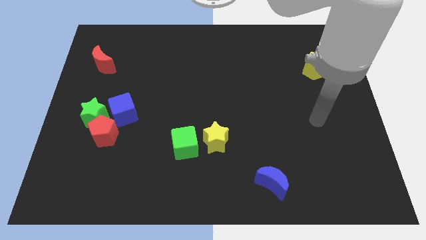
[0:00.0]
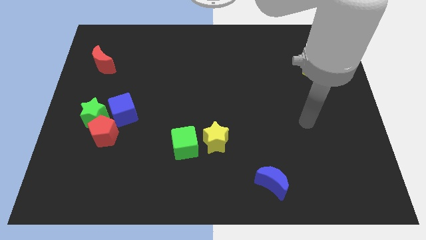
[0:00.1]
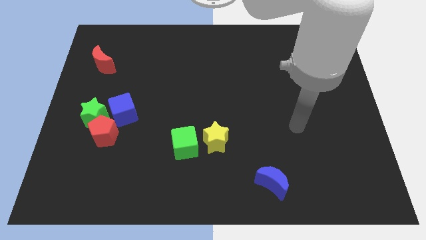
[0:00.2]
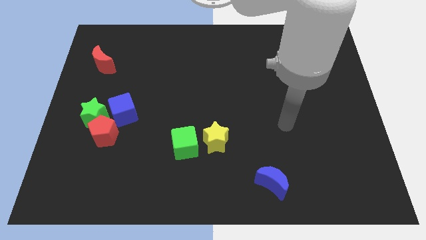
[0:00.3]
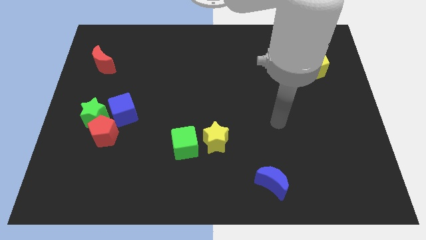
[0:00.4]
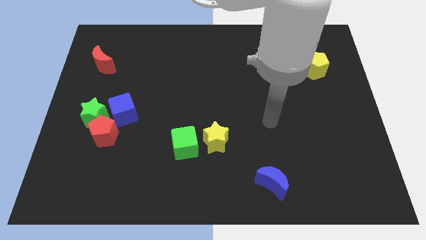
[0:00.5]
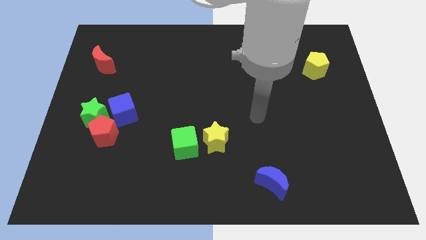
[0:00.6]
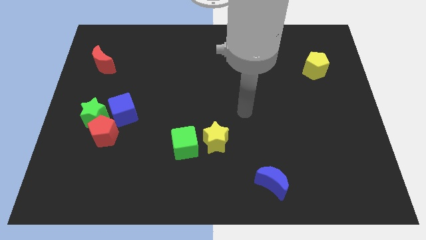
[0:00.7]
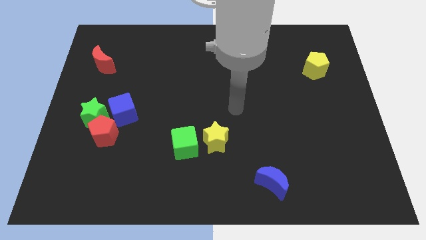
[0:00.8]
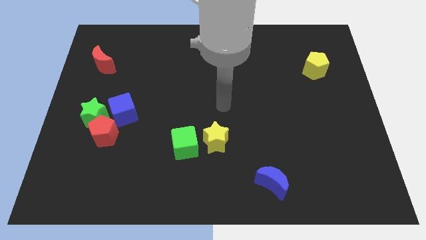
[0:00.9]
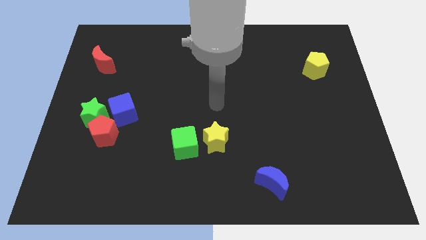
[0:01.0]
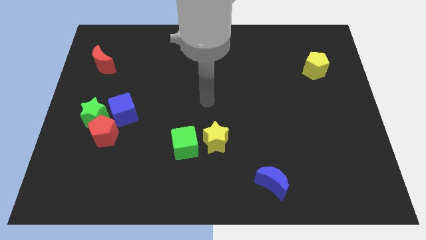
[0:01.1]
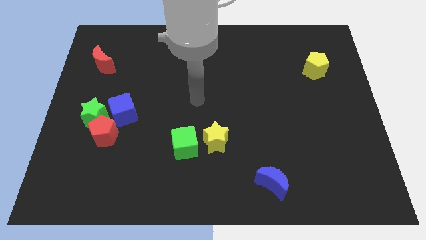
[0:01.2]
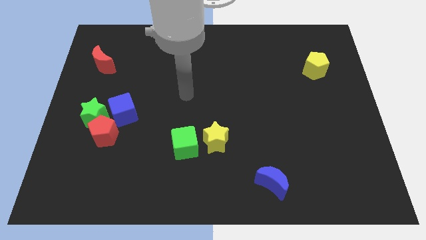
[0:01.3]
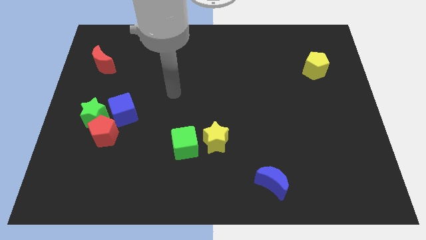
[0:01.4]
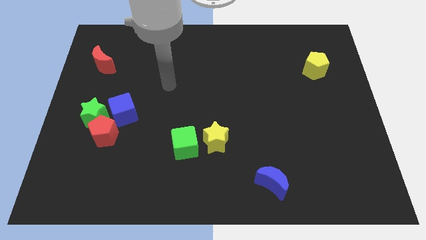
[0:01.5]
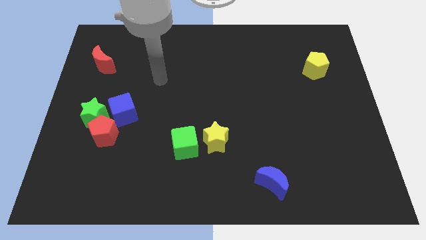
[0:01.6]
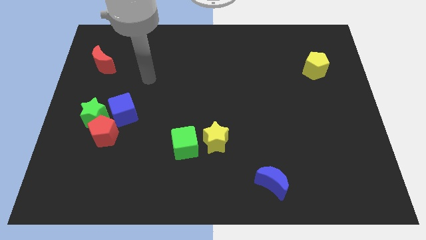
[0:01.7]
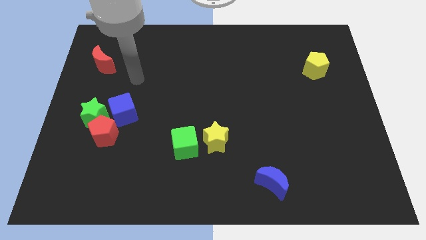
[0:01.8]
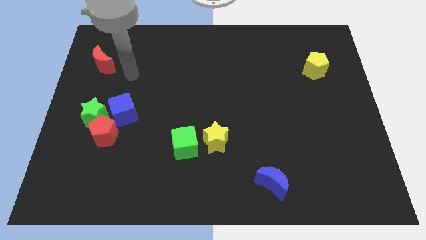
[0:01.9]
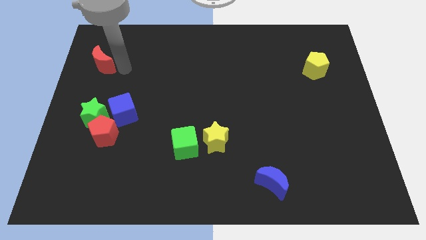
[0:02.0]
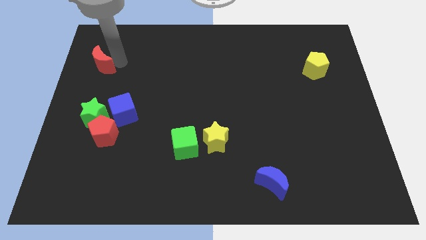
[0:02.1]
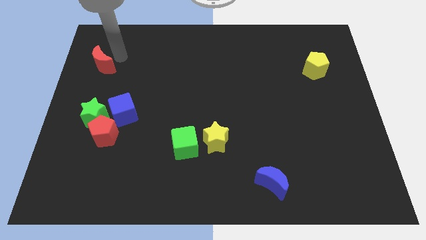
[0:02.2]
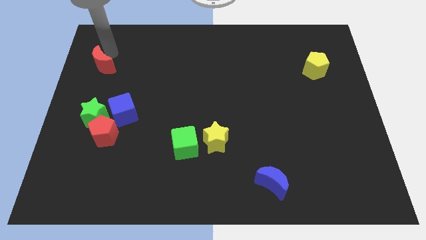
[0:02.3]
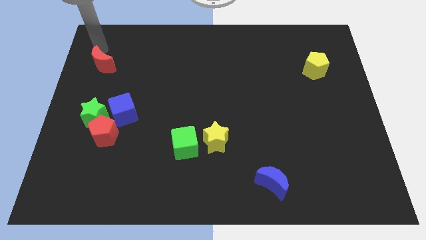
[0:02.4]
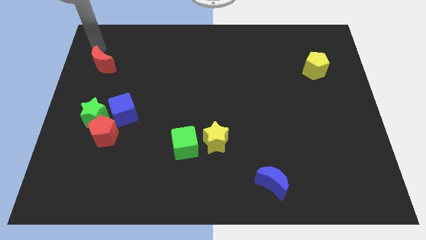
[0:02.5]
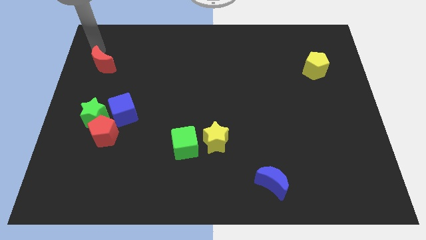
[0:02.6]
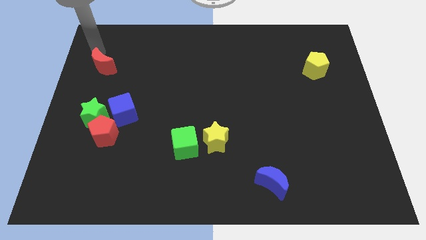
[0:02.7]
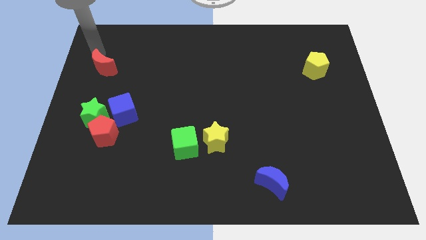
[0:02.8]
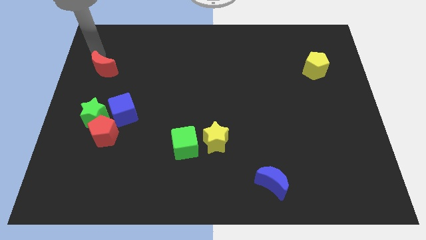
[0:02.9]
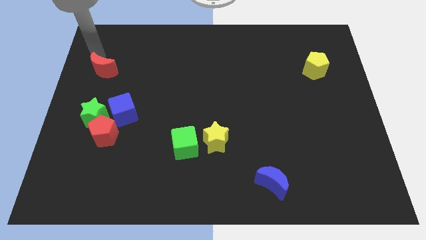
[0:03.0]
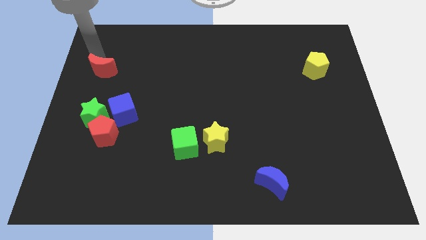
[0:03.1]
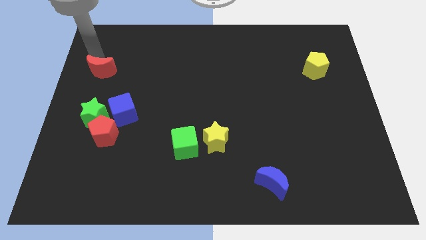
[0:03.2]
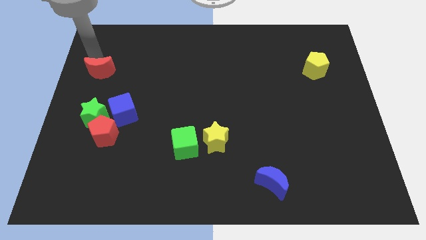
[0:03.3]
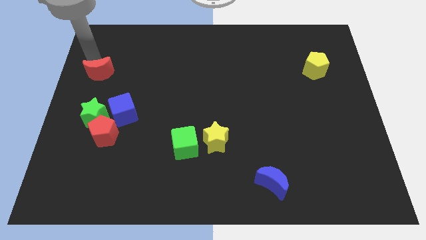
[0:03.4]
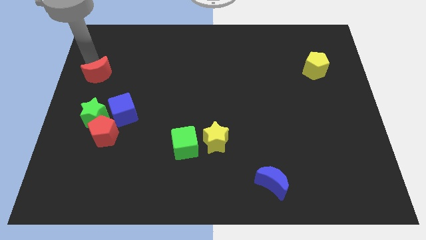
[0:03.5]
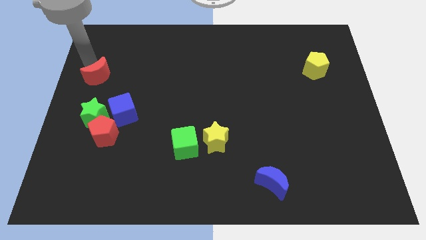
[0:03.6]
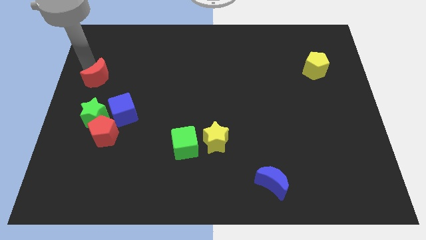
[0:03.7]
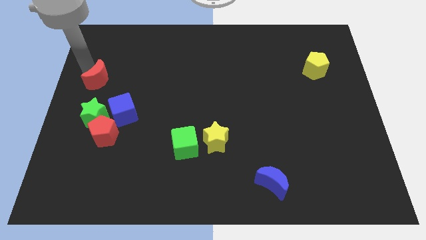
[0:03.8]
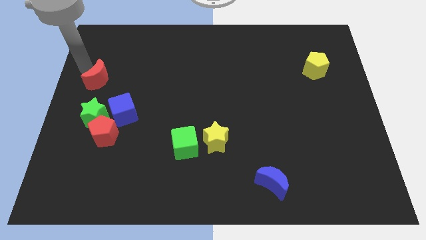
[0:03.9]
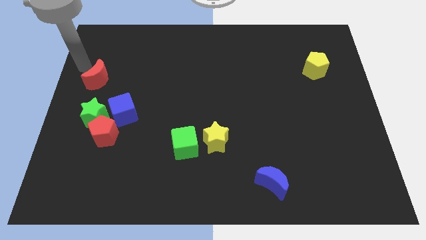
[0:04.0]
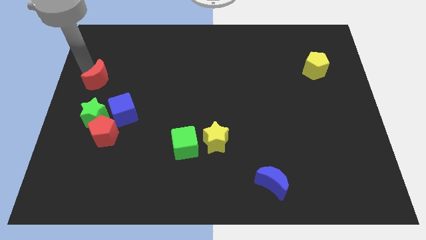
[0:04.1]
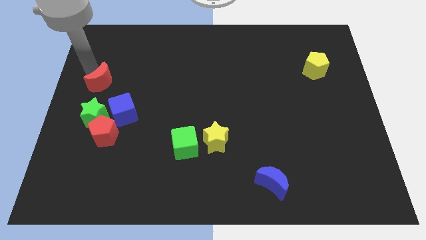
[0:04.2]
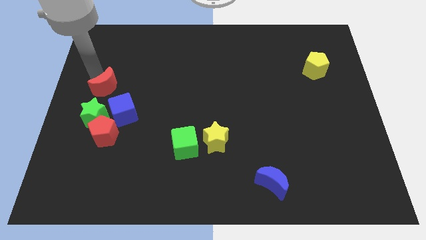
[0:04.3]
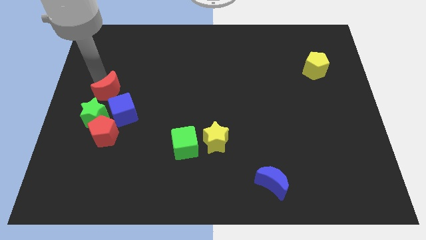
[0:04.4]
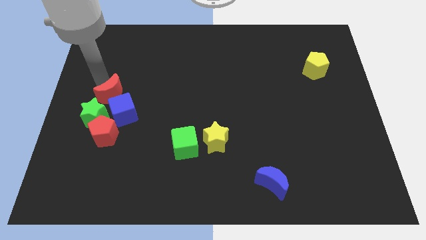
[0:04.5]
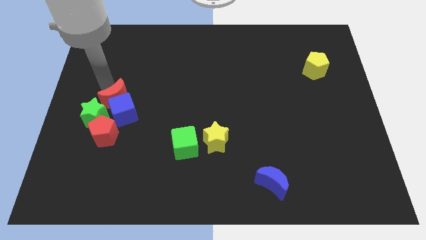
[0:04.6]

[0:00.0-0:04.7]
push the red moon towards the blue cube

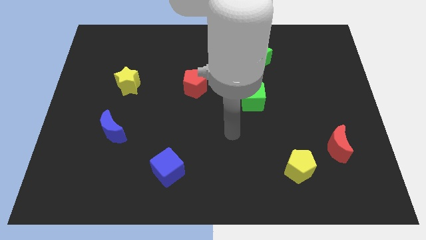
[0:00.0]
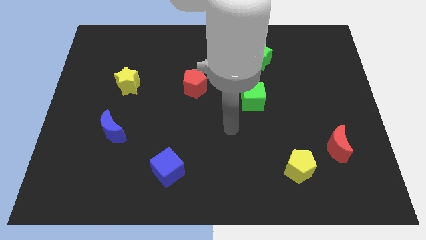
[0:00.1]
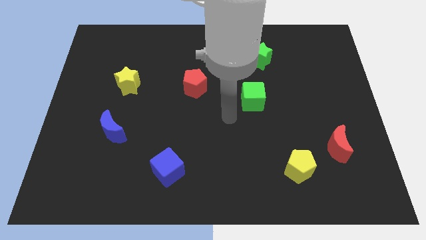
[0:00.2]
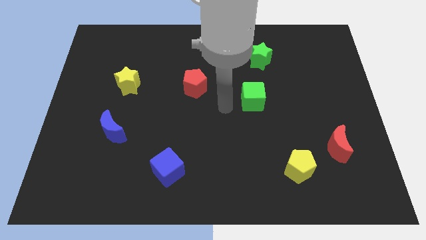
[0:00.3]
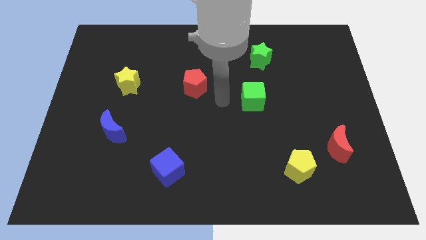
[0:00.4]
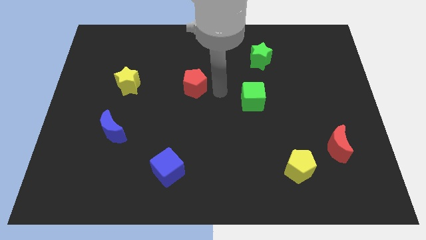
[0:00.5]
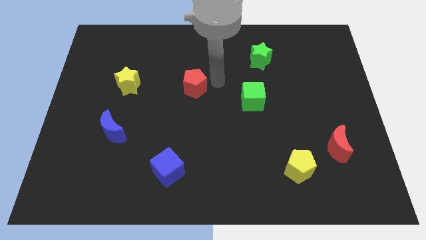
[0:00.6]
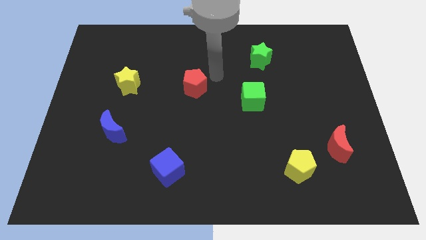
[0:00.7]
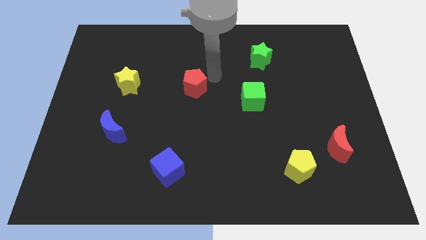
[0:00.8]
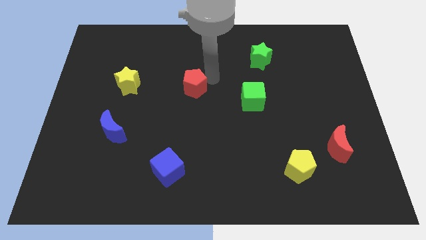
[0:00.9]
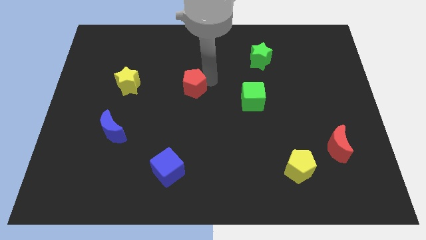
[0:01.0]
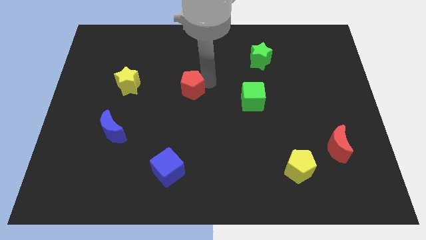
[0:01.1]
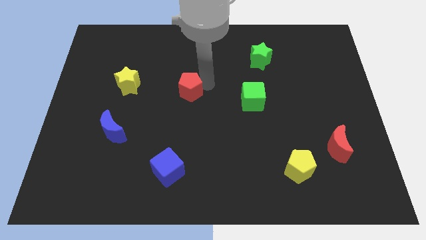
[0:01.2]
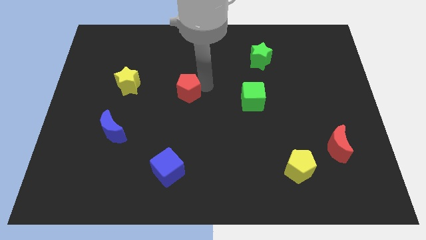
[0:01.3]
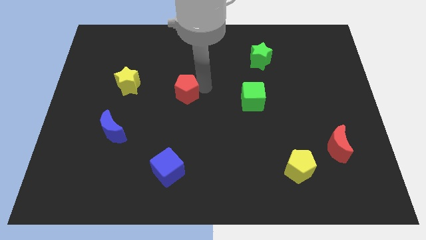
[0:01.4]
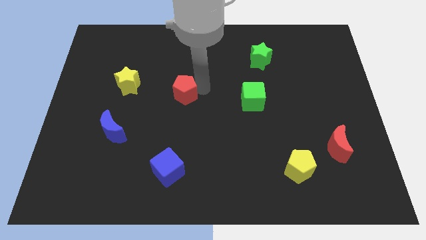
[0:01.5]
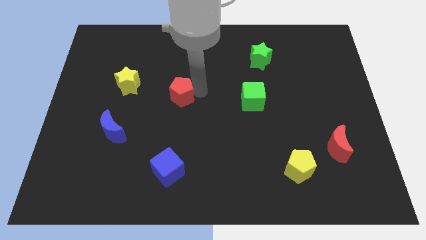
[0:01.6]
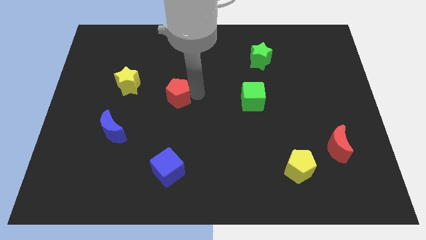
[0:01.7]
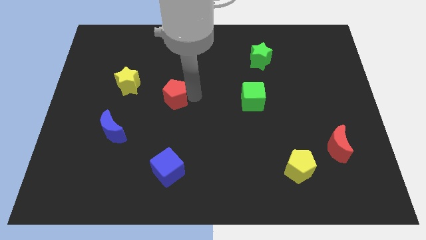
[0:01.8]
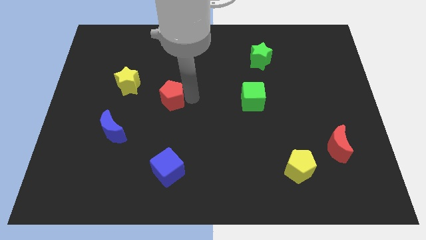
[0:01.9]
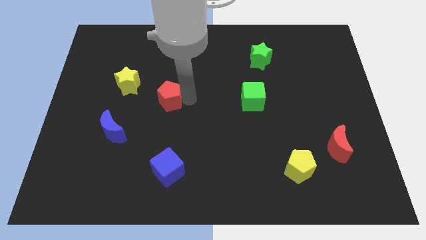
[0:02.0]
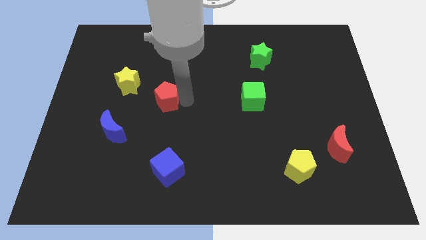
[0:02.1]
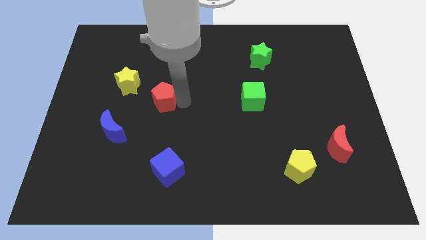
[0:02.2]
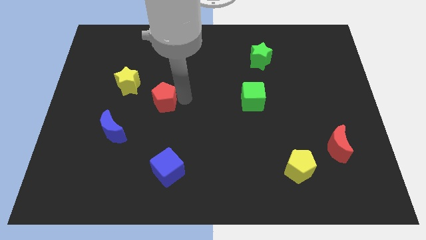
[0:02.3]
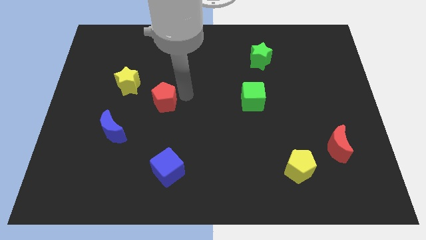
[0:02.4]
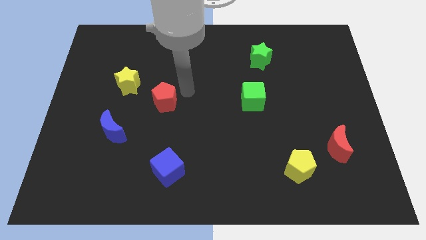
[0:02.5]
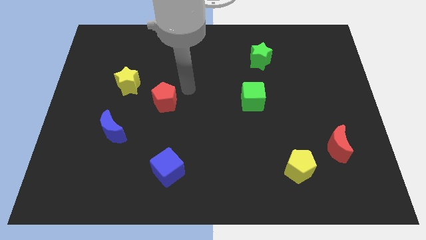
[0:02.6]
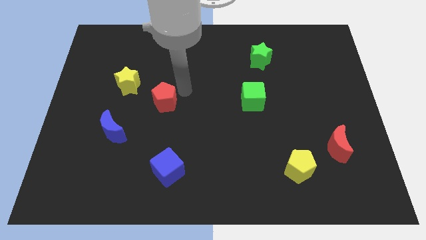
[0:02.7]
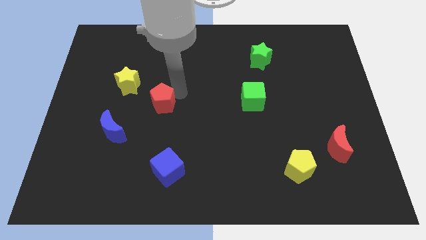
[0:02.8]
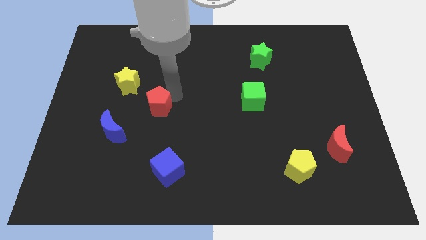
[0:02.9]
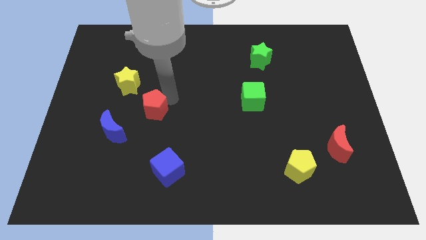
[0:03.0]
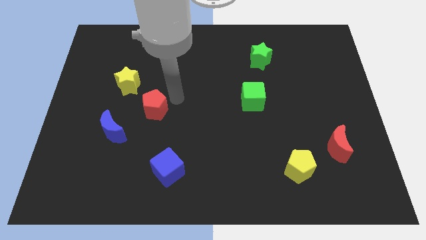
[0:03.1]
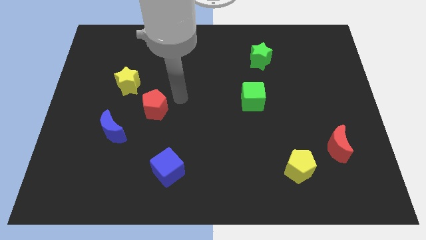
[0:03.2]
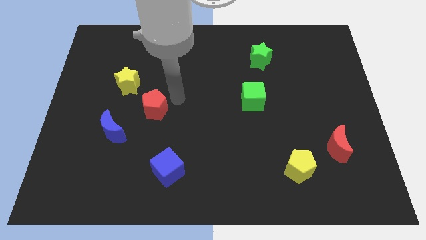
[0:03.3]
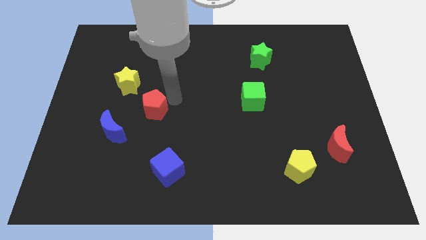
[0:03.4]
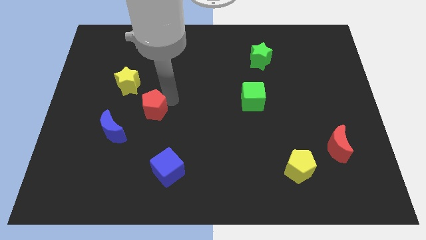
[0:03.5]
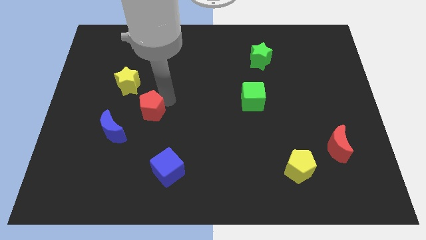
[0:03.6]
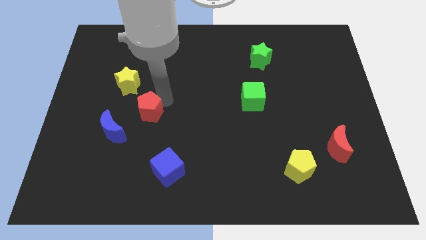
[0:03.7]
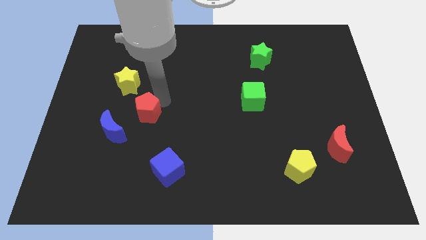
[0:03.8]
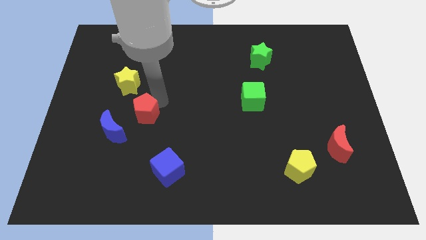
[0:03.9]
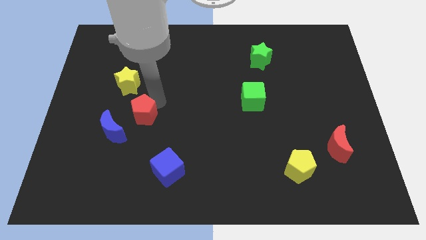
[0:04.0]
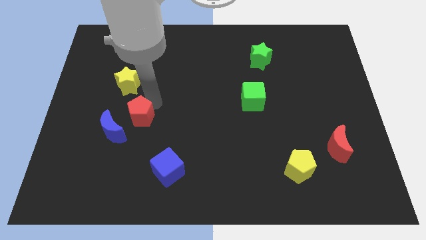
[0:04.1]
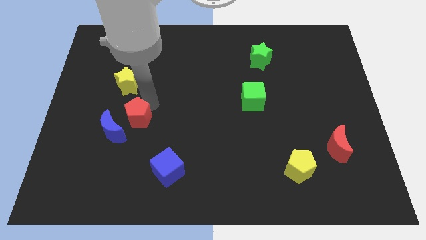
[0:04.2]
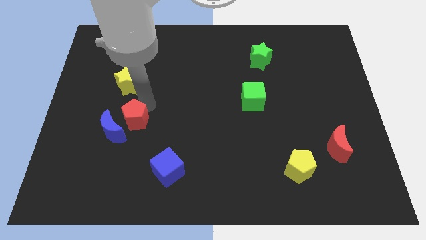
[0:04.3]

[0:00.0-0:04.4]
push the red pentagon to the blue moon
